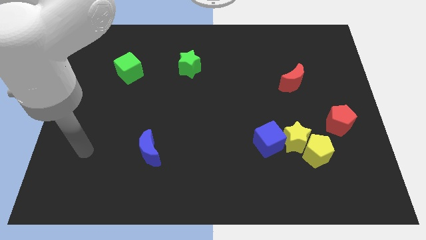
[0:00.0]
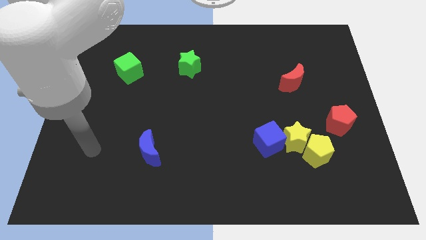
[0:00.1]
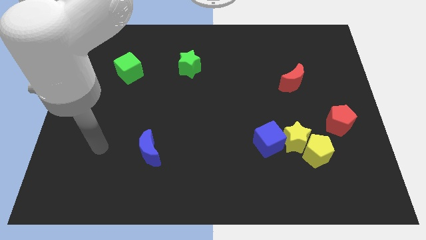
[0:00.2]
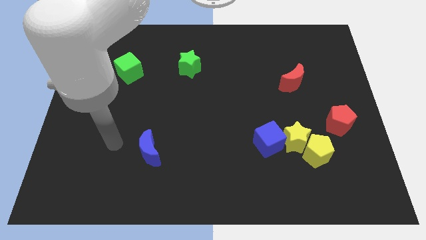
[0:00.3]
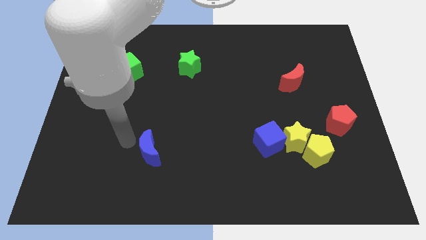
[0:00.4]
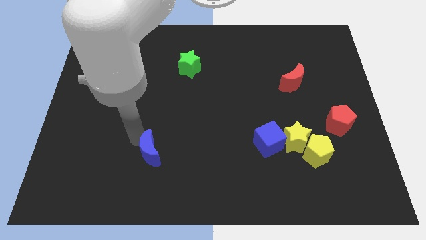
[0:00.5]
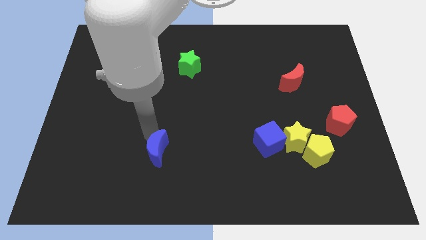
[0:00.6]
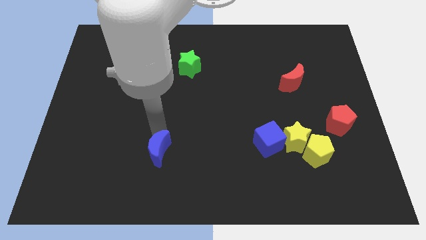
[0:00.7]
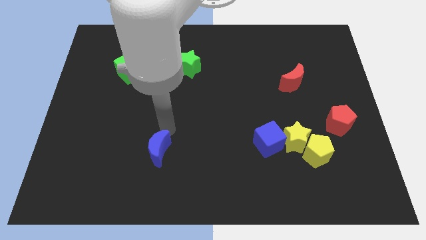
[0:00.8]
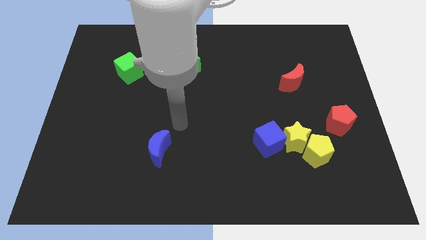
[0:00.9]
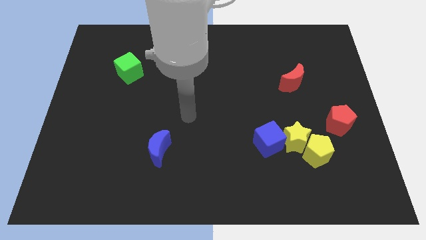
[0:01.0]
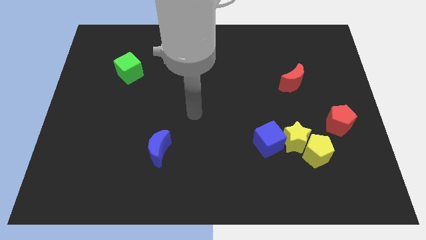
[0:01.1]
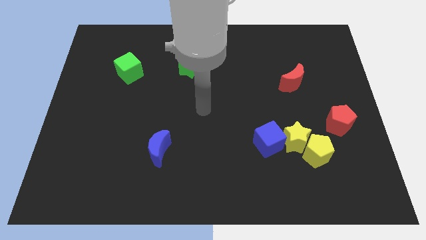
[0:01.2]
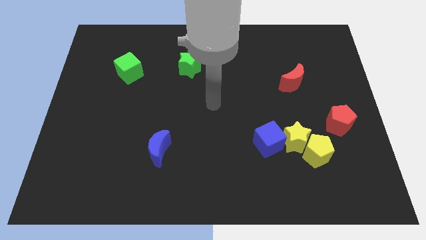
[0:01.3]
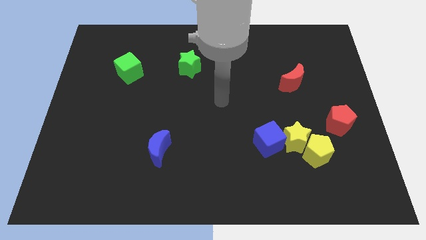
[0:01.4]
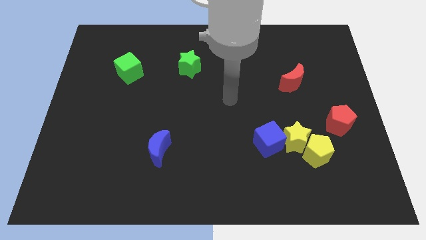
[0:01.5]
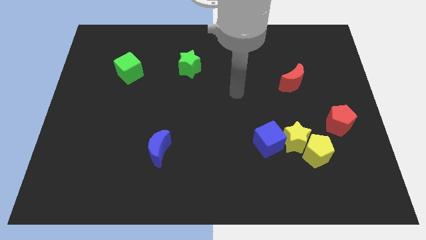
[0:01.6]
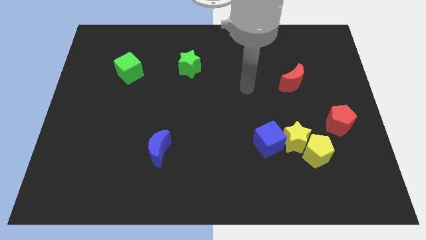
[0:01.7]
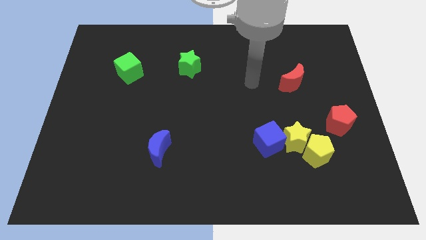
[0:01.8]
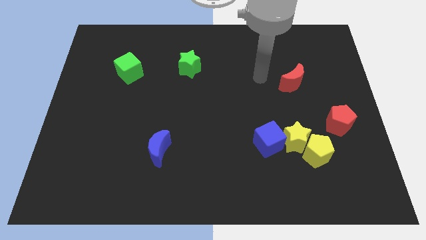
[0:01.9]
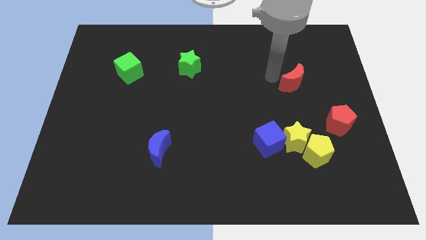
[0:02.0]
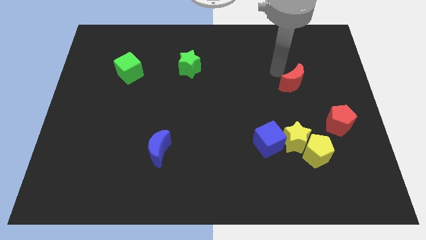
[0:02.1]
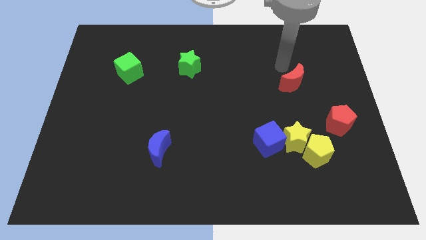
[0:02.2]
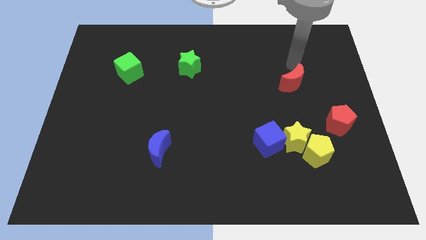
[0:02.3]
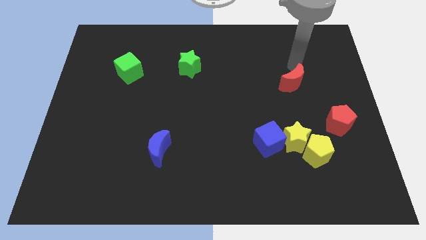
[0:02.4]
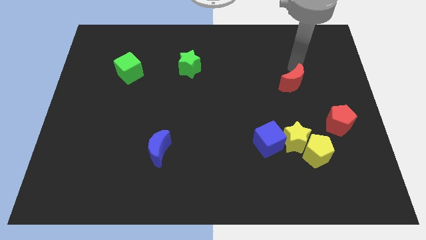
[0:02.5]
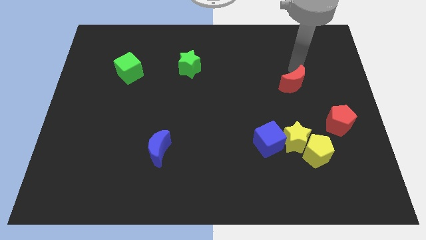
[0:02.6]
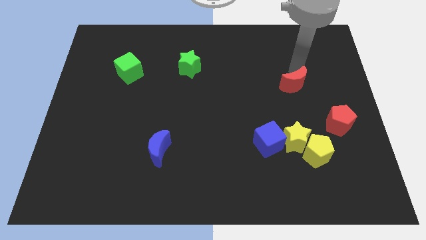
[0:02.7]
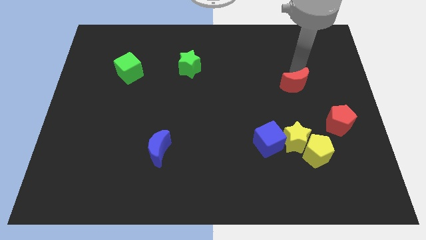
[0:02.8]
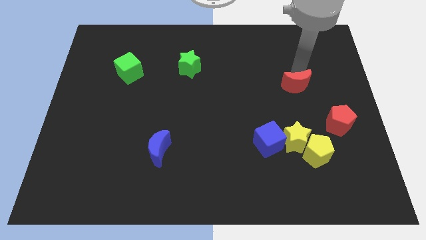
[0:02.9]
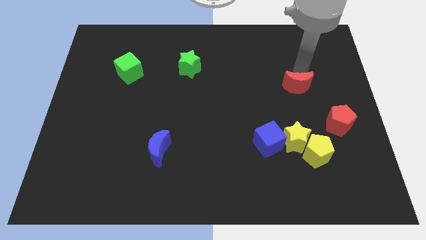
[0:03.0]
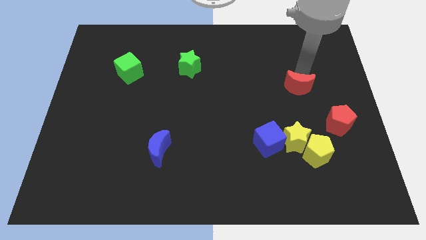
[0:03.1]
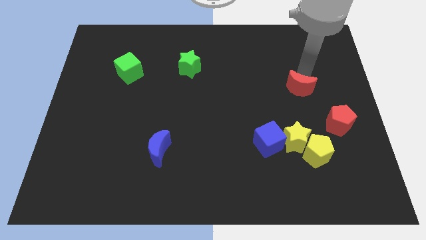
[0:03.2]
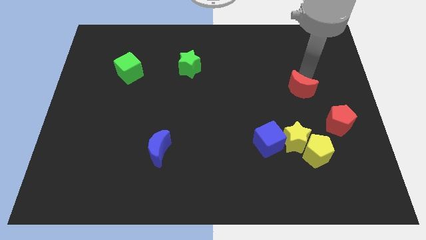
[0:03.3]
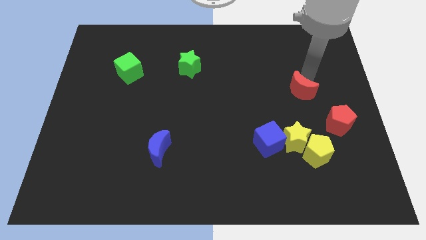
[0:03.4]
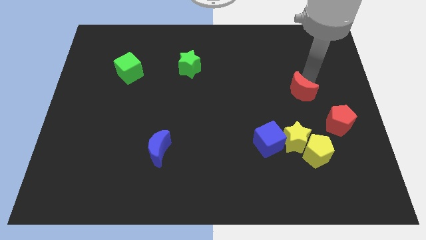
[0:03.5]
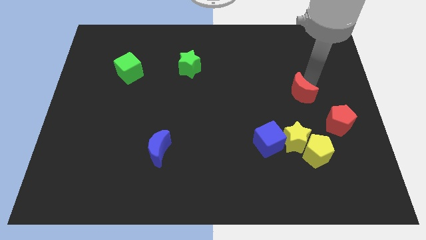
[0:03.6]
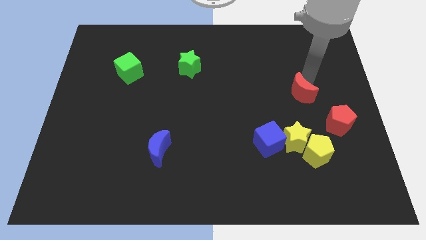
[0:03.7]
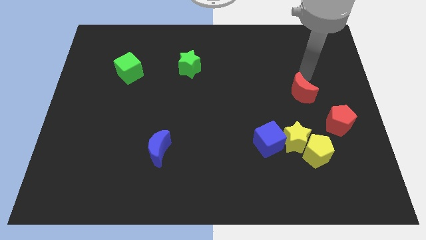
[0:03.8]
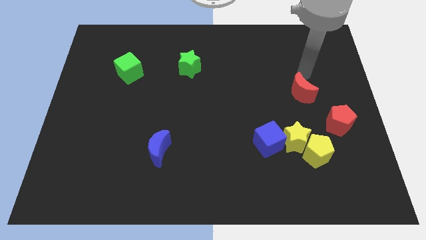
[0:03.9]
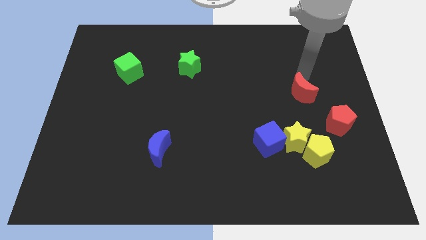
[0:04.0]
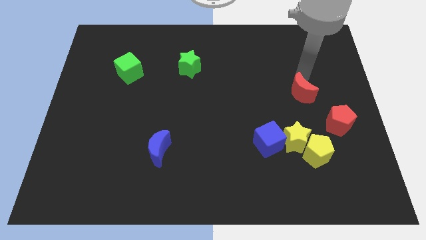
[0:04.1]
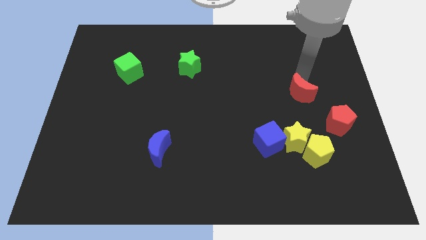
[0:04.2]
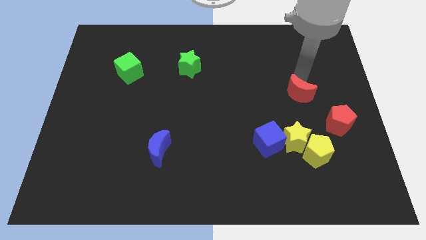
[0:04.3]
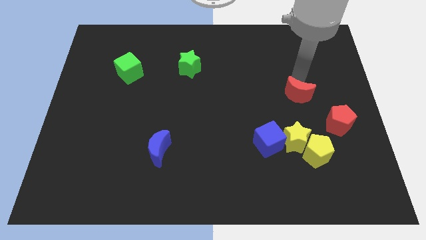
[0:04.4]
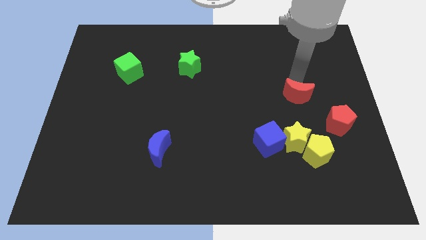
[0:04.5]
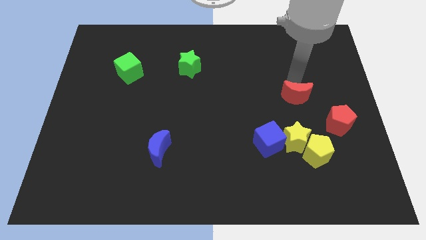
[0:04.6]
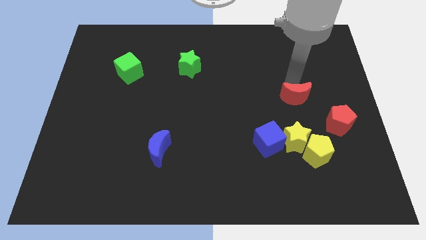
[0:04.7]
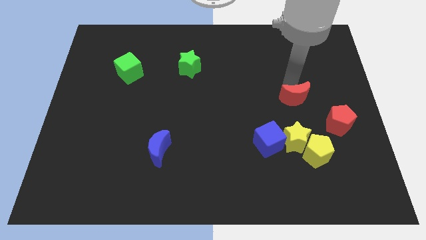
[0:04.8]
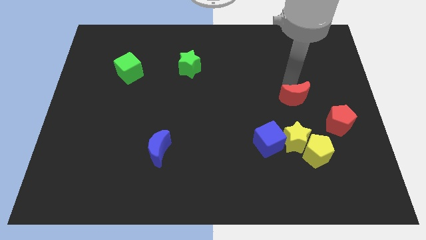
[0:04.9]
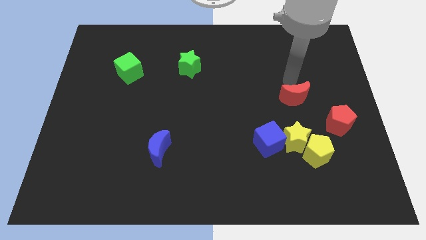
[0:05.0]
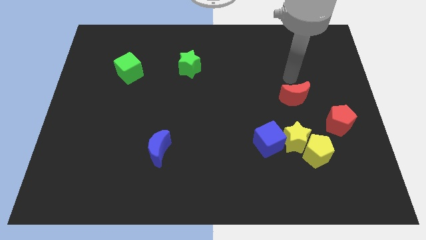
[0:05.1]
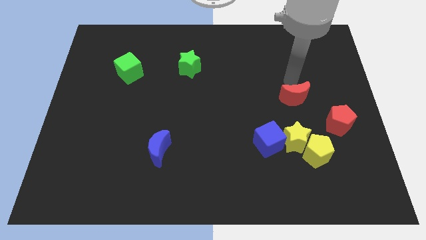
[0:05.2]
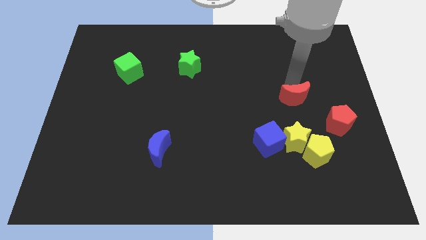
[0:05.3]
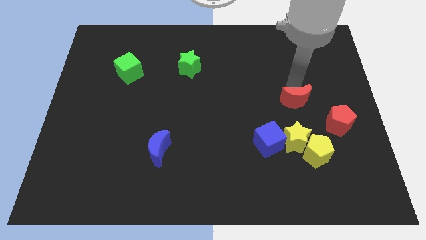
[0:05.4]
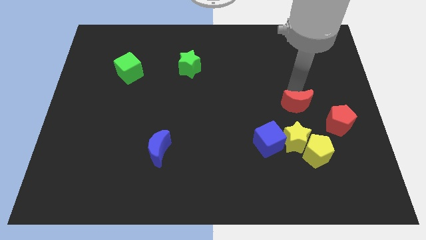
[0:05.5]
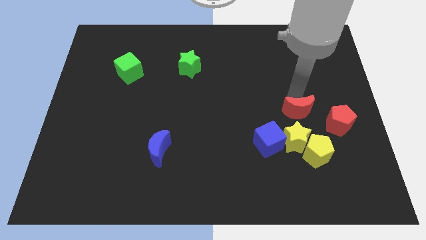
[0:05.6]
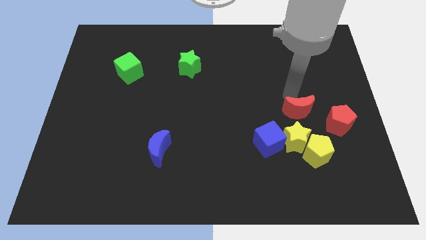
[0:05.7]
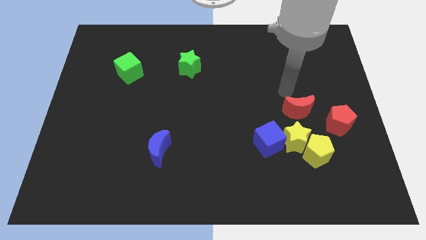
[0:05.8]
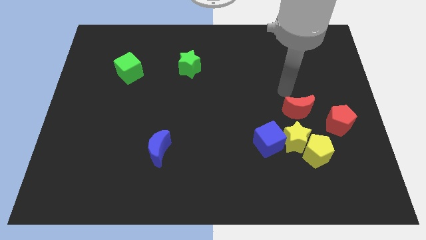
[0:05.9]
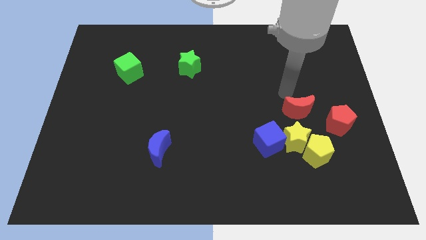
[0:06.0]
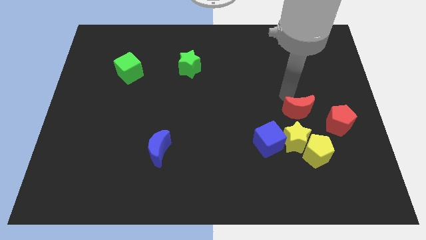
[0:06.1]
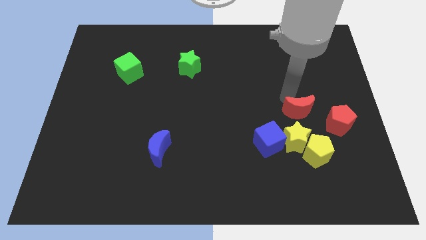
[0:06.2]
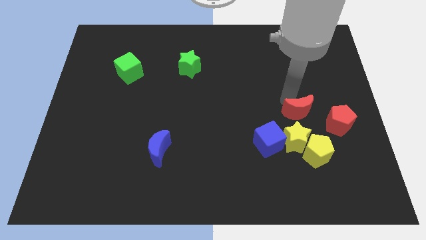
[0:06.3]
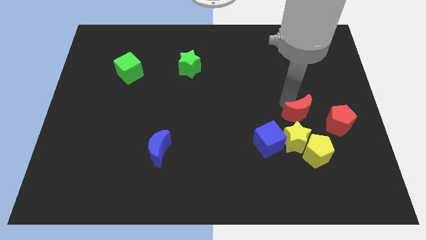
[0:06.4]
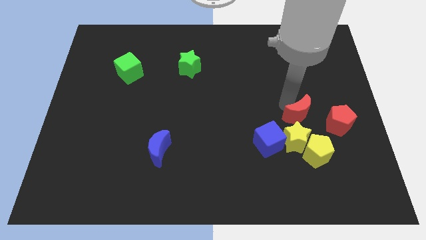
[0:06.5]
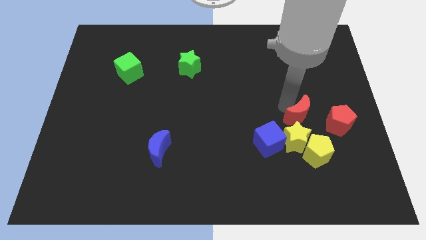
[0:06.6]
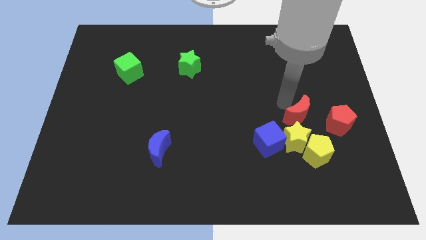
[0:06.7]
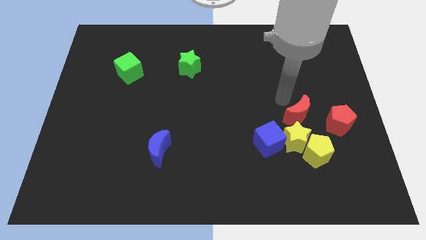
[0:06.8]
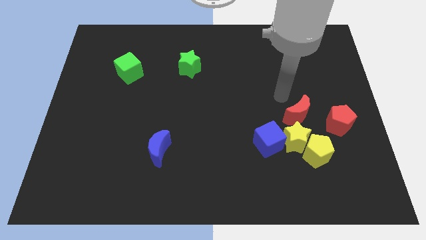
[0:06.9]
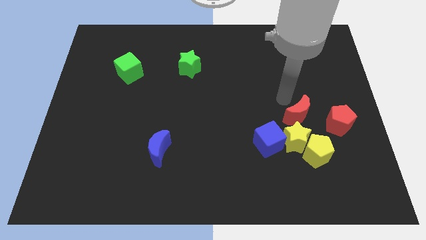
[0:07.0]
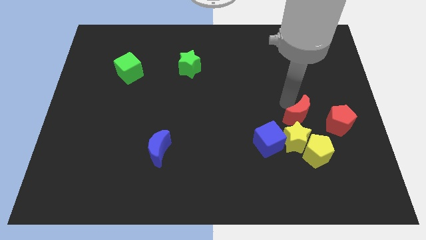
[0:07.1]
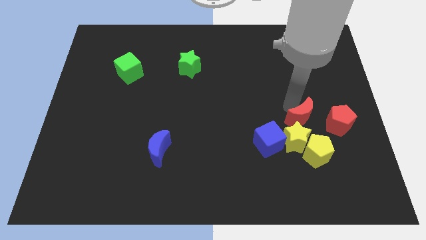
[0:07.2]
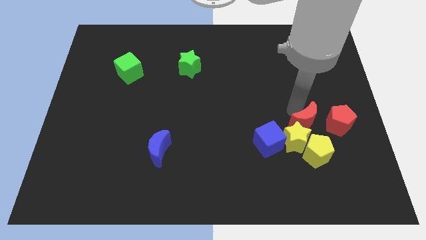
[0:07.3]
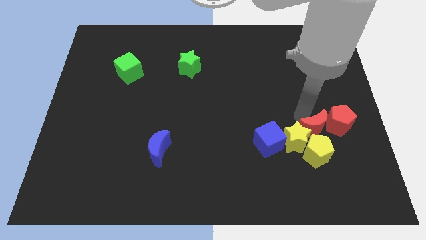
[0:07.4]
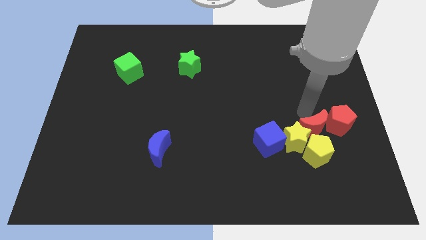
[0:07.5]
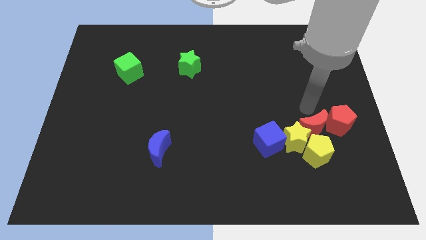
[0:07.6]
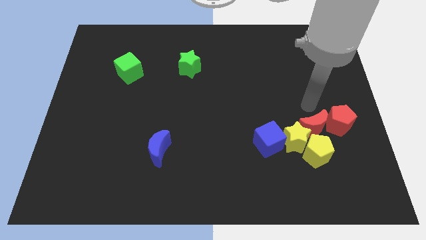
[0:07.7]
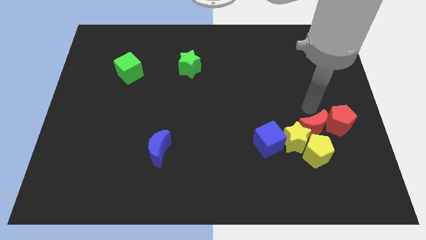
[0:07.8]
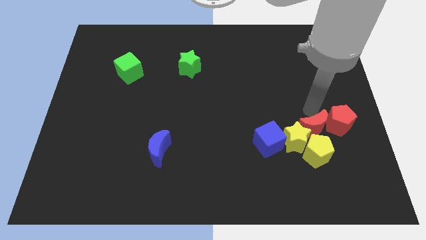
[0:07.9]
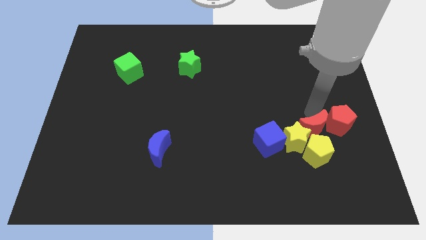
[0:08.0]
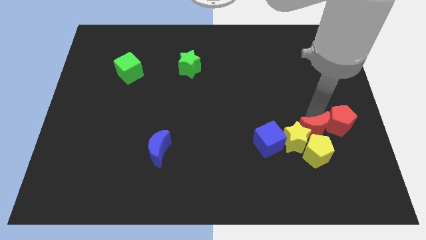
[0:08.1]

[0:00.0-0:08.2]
slide the red moon next to the yellow pentagon

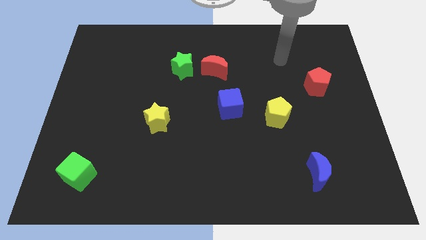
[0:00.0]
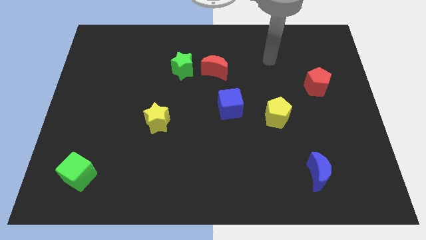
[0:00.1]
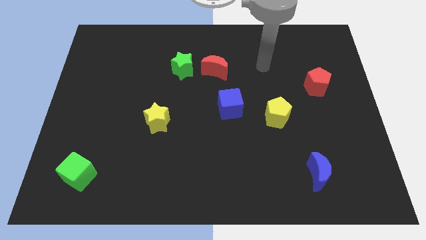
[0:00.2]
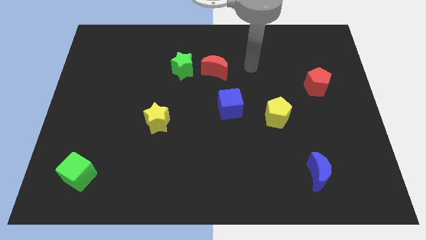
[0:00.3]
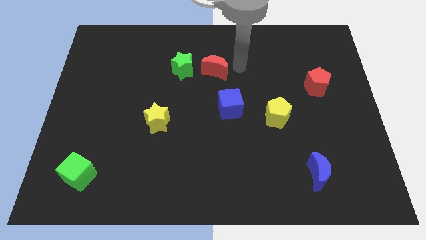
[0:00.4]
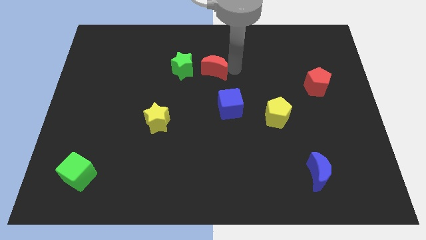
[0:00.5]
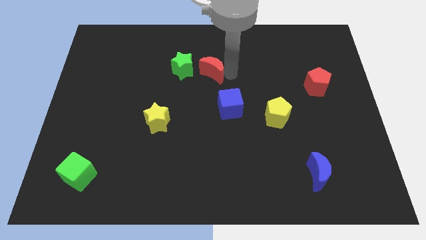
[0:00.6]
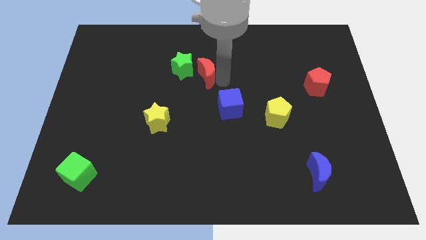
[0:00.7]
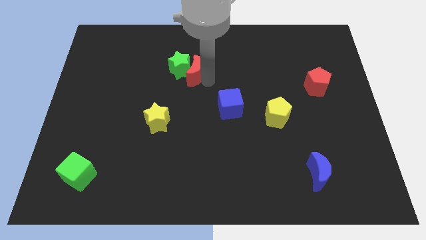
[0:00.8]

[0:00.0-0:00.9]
put the green star close to the red moon
